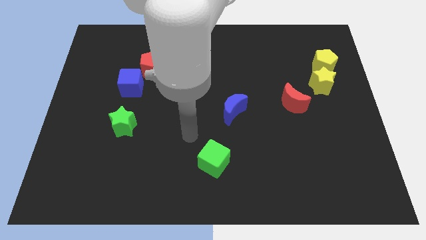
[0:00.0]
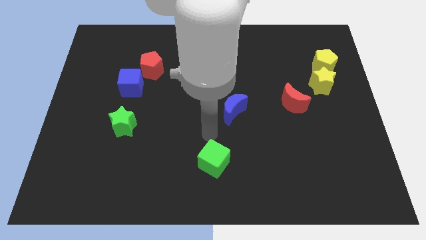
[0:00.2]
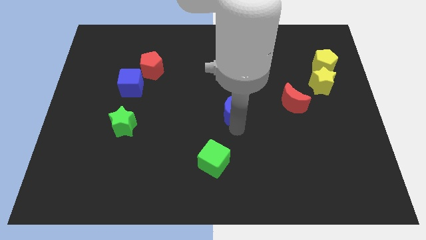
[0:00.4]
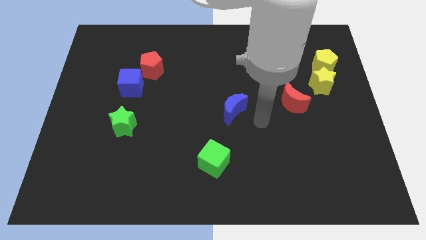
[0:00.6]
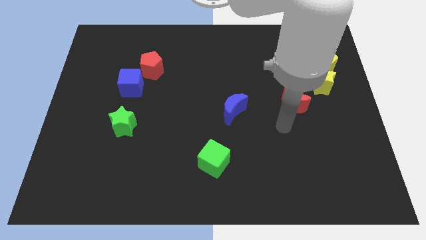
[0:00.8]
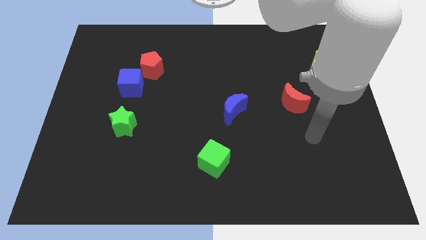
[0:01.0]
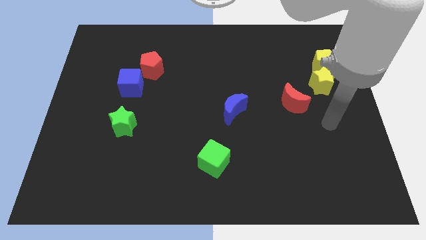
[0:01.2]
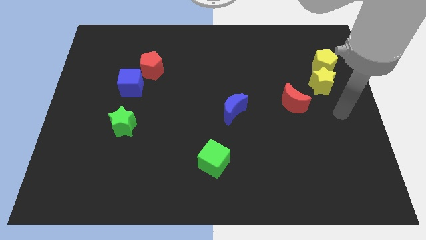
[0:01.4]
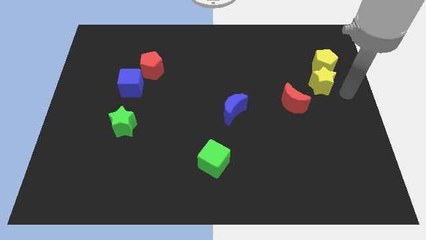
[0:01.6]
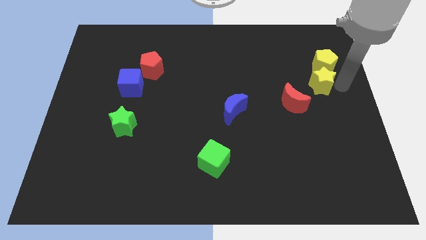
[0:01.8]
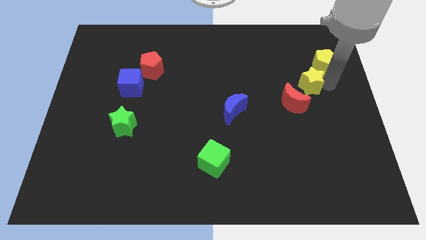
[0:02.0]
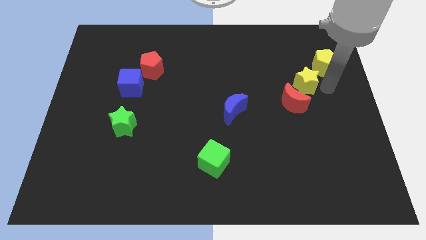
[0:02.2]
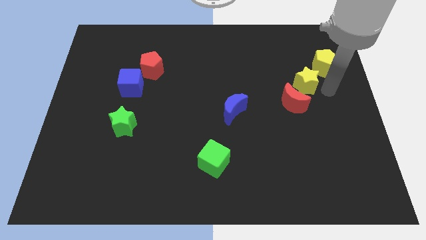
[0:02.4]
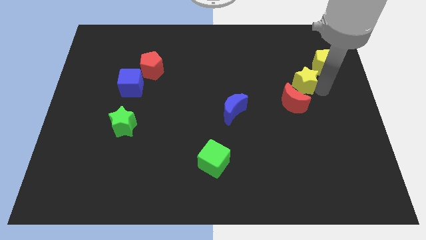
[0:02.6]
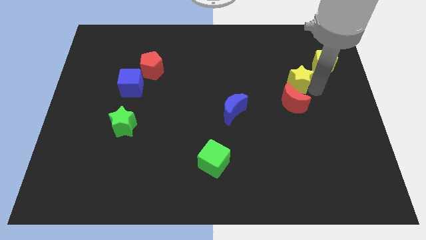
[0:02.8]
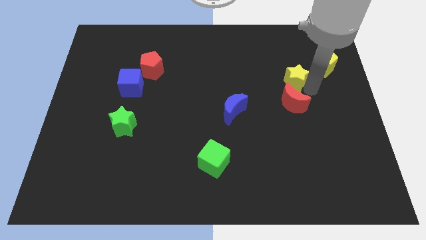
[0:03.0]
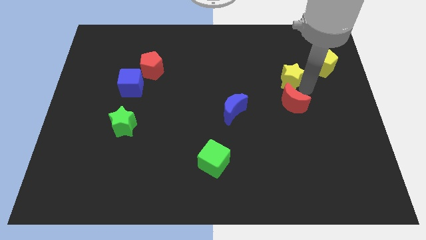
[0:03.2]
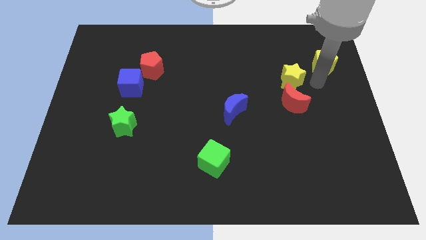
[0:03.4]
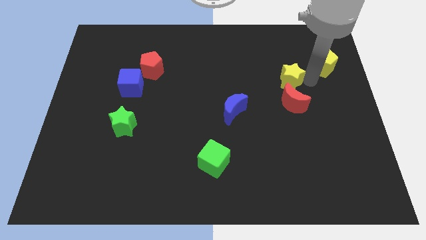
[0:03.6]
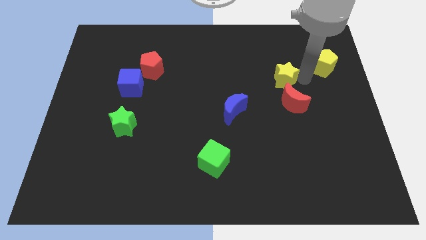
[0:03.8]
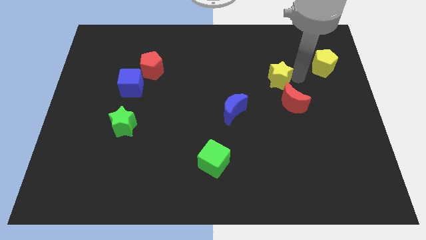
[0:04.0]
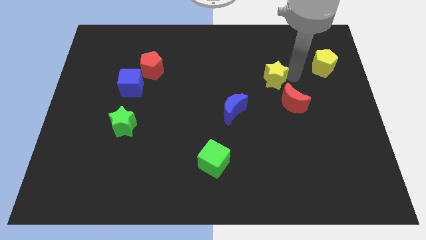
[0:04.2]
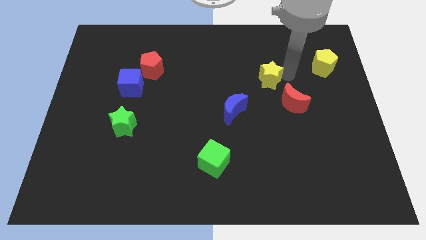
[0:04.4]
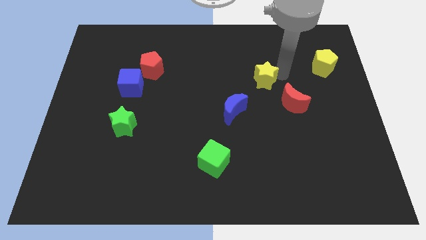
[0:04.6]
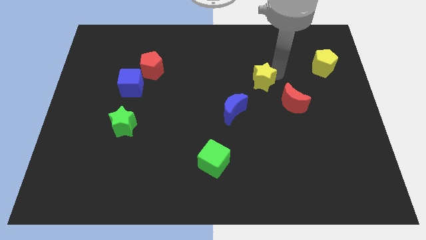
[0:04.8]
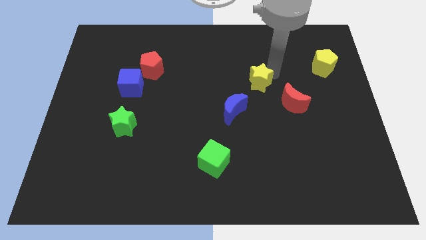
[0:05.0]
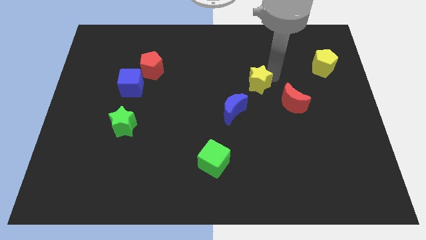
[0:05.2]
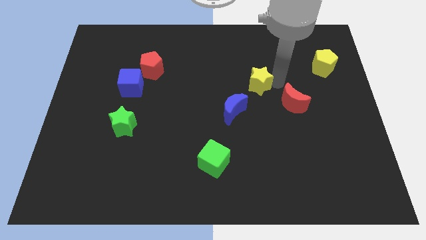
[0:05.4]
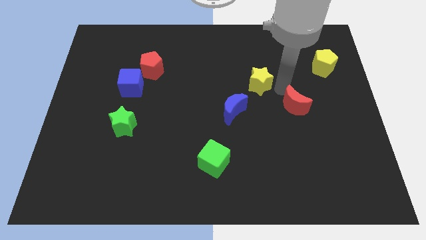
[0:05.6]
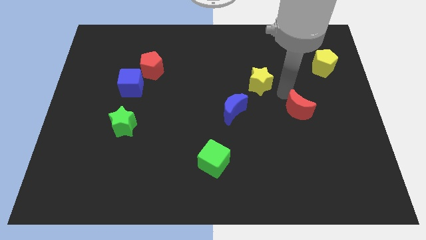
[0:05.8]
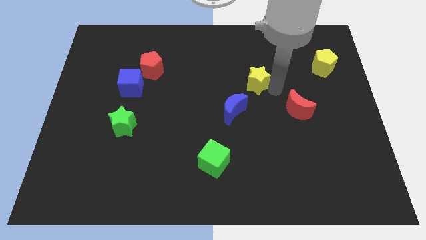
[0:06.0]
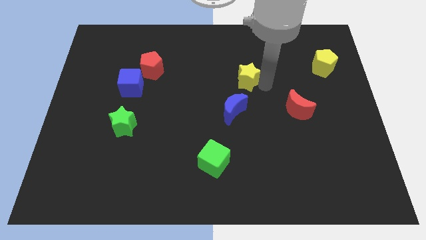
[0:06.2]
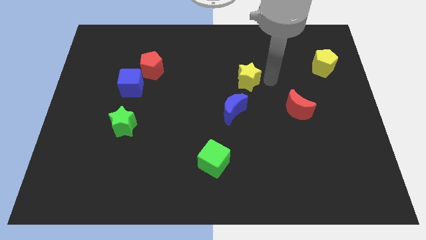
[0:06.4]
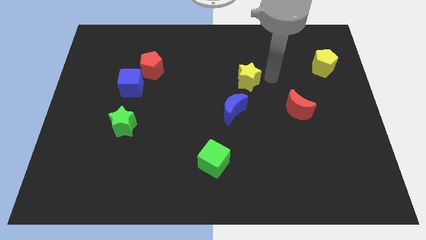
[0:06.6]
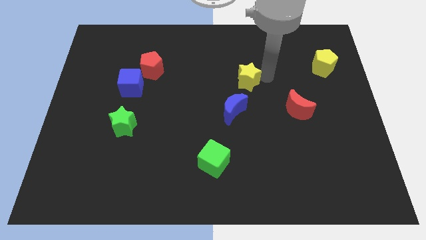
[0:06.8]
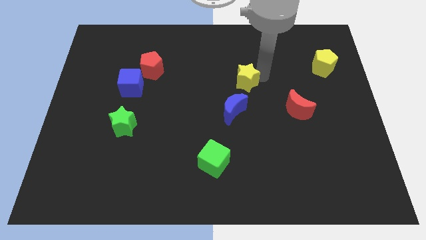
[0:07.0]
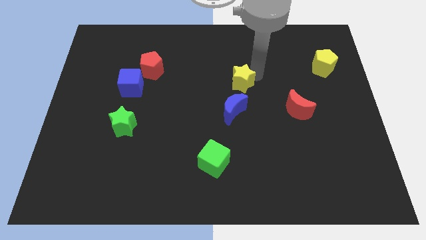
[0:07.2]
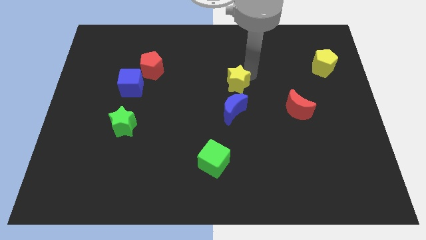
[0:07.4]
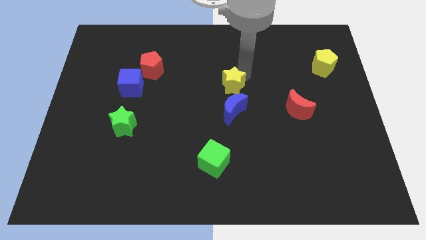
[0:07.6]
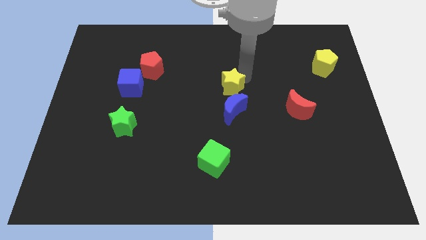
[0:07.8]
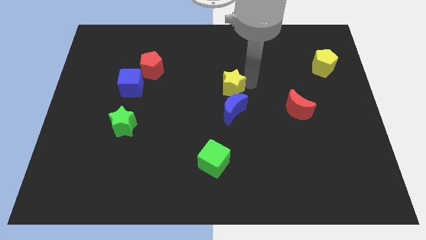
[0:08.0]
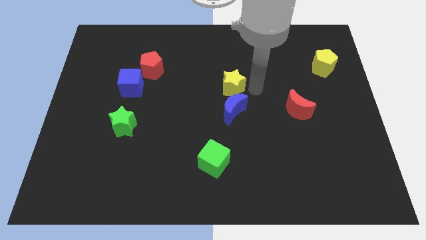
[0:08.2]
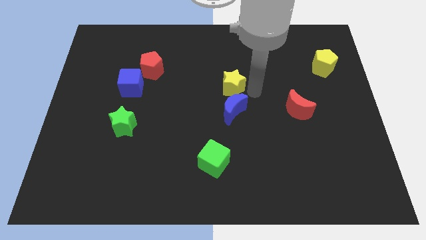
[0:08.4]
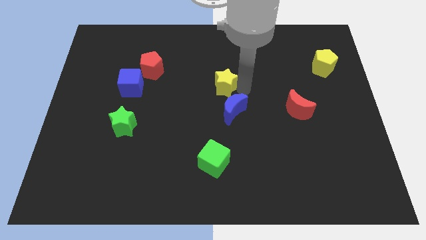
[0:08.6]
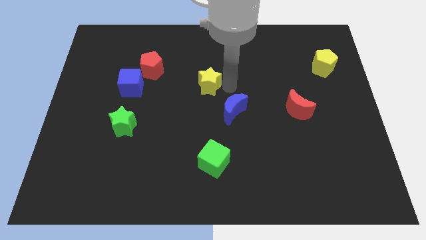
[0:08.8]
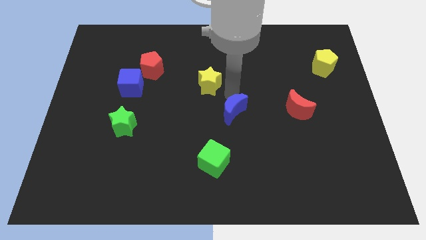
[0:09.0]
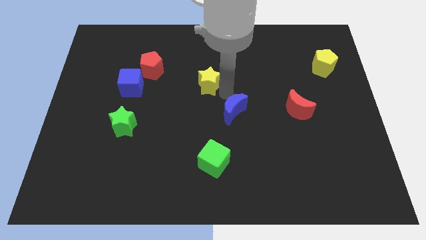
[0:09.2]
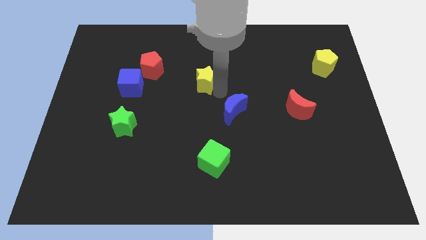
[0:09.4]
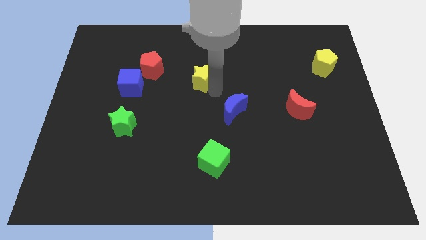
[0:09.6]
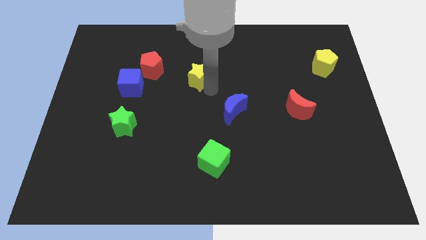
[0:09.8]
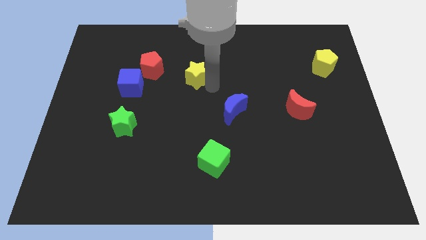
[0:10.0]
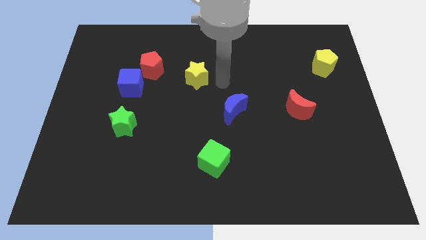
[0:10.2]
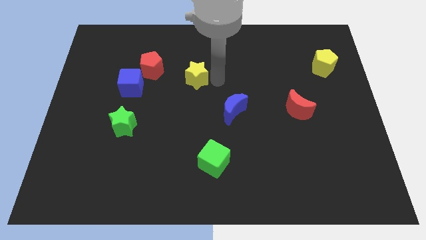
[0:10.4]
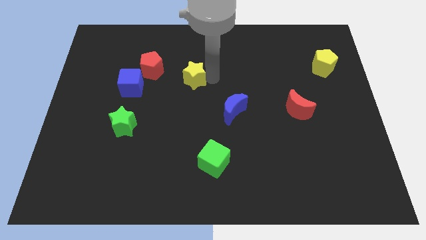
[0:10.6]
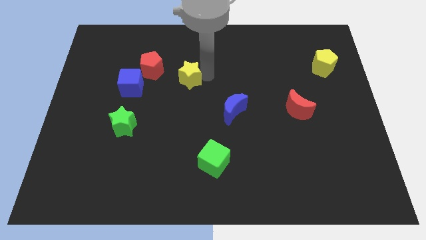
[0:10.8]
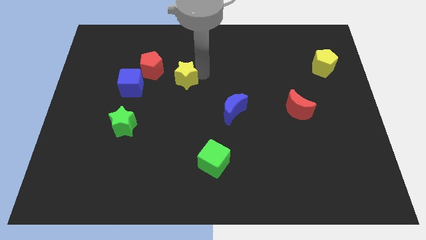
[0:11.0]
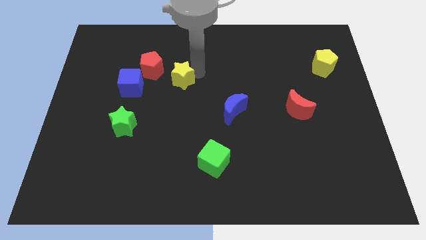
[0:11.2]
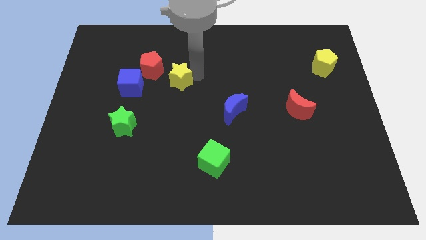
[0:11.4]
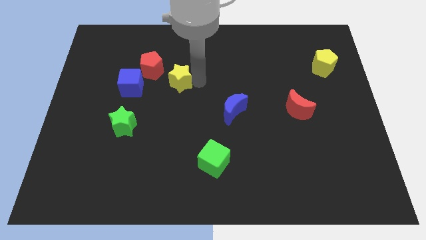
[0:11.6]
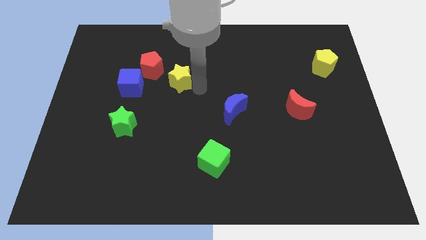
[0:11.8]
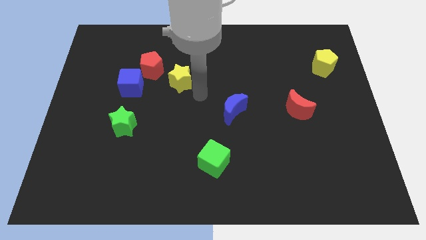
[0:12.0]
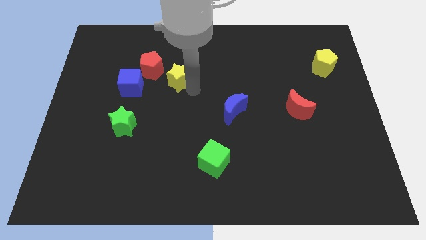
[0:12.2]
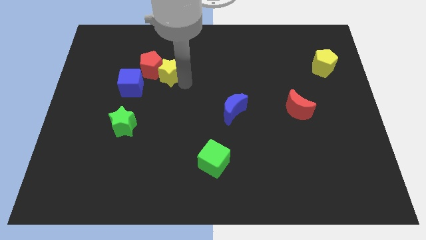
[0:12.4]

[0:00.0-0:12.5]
push the yellow star next to the red pentagon

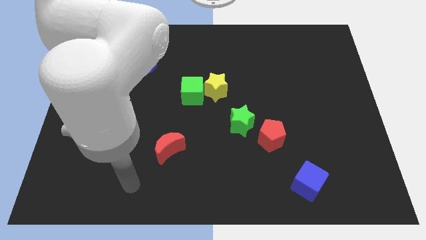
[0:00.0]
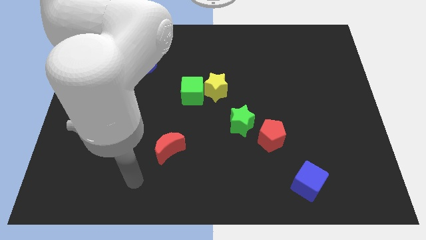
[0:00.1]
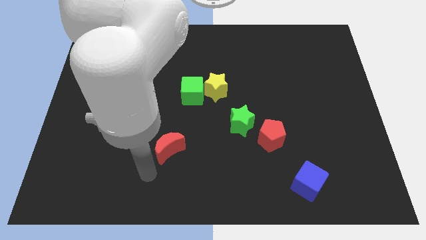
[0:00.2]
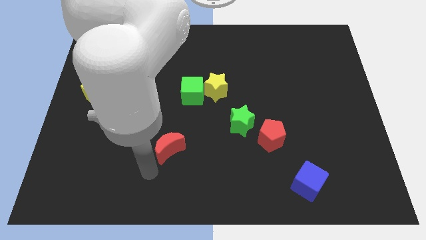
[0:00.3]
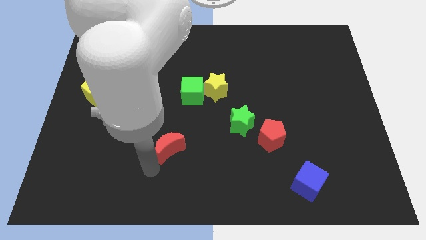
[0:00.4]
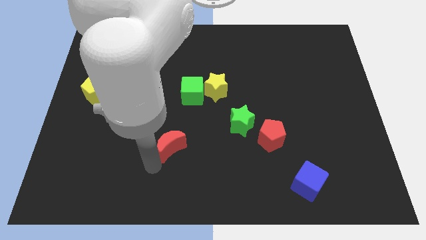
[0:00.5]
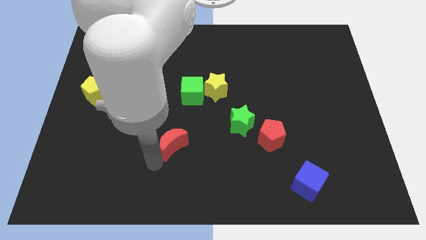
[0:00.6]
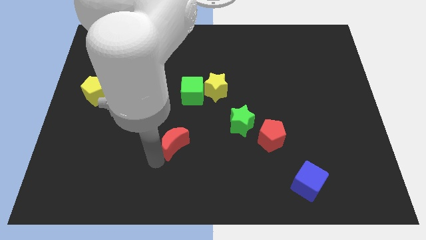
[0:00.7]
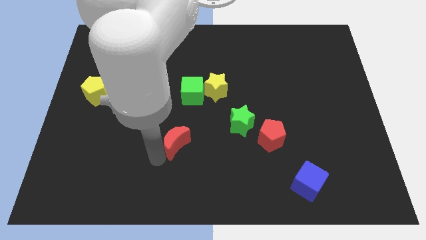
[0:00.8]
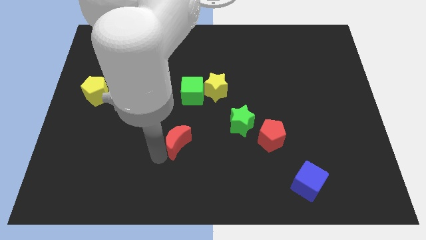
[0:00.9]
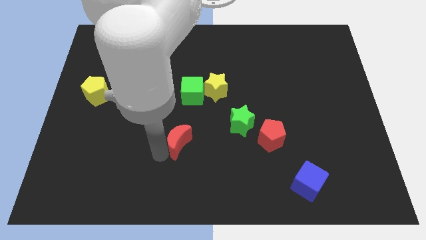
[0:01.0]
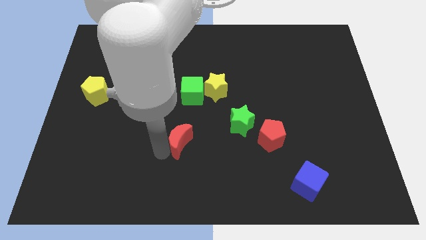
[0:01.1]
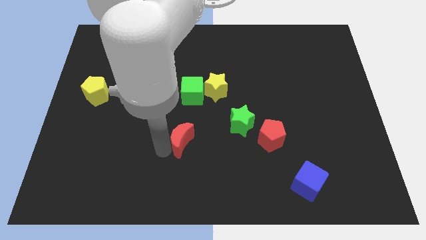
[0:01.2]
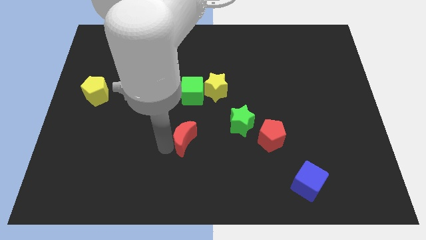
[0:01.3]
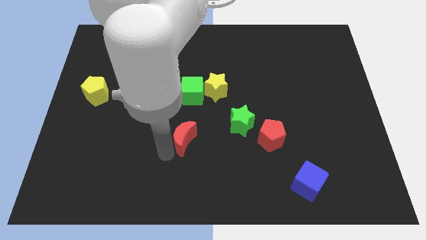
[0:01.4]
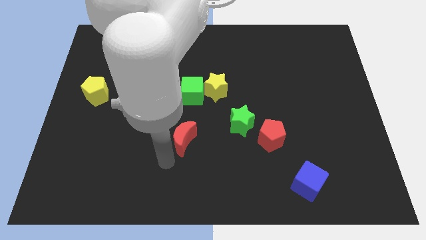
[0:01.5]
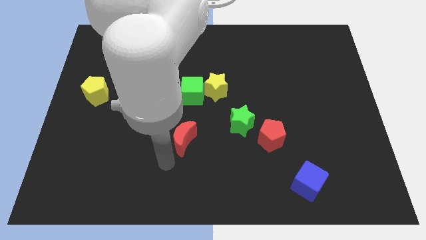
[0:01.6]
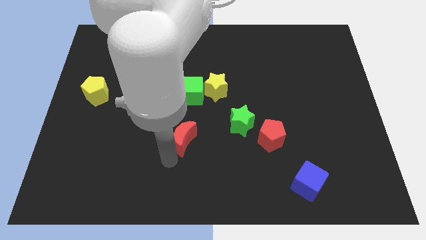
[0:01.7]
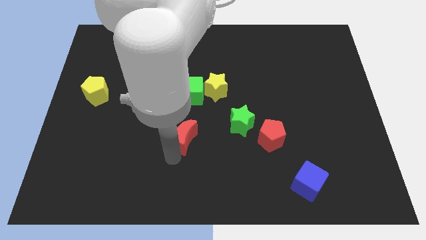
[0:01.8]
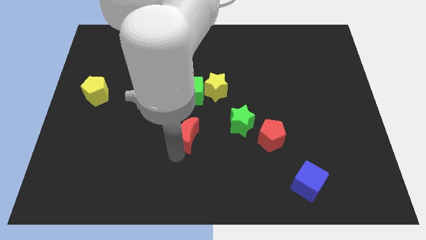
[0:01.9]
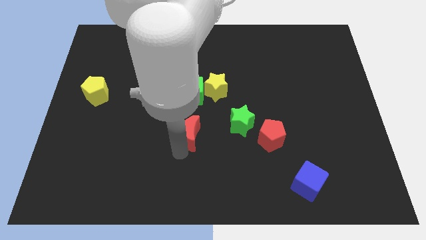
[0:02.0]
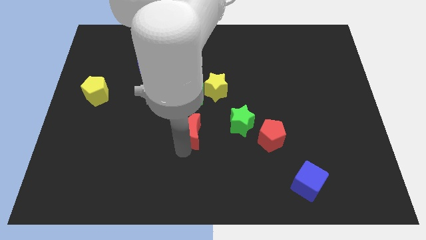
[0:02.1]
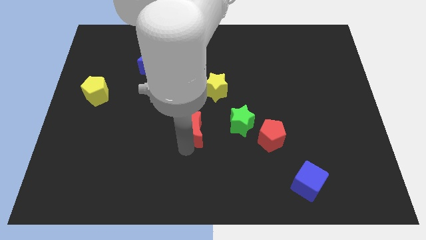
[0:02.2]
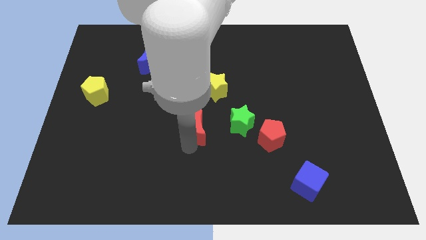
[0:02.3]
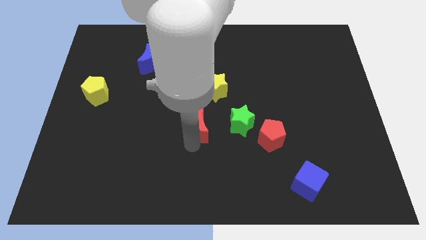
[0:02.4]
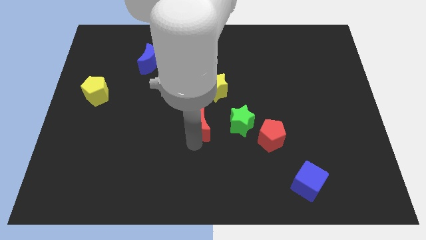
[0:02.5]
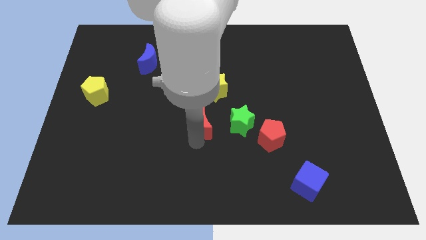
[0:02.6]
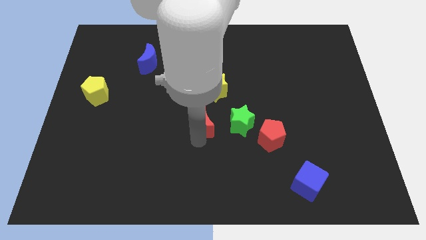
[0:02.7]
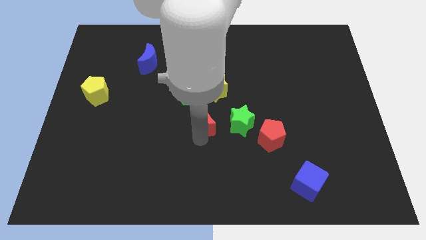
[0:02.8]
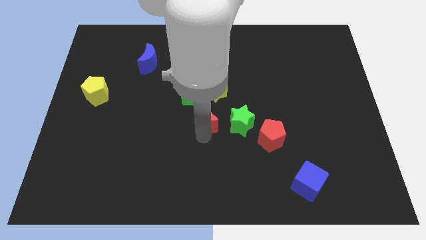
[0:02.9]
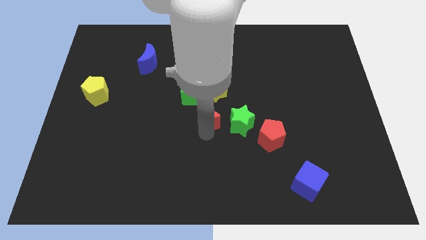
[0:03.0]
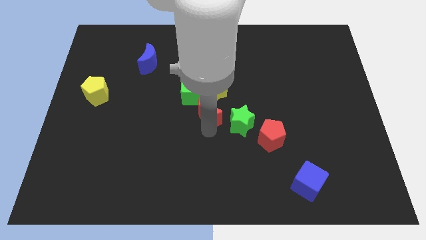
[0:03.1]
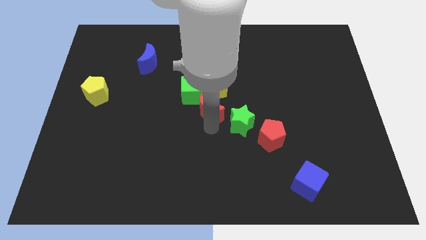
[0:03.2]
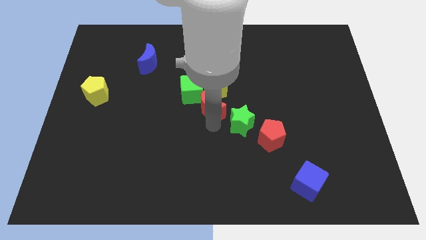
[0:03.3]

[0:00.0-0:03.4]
put the red moon to the yellow star
